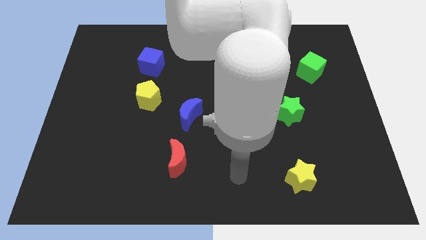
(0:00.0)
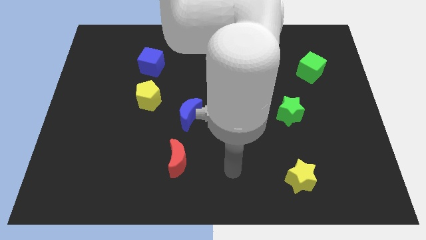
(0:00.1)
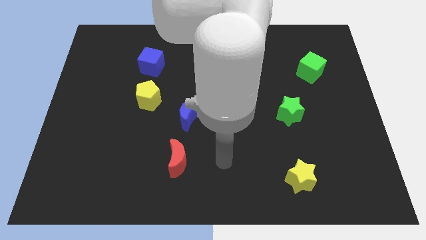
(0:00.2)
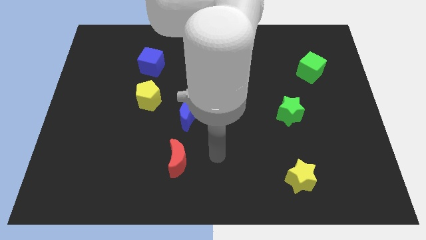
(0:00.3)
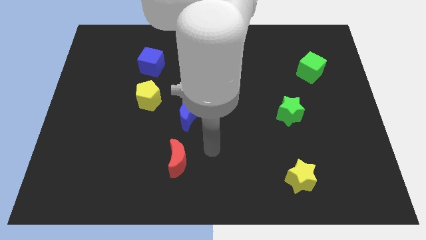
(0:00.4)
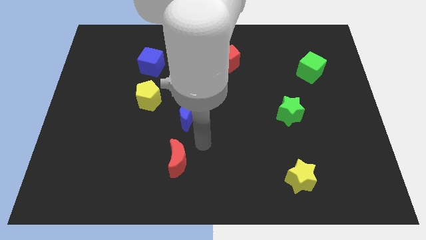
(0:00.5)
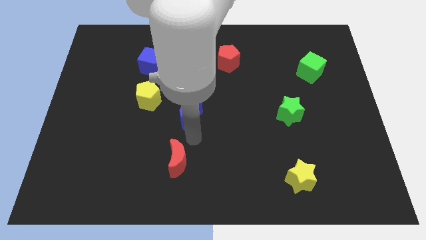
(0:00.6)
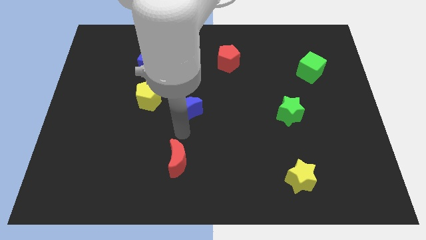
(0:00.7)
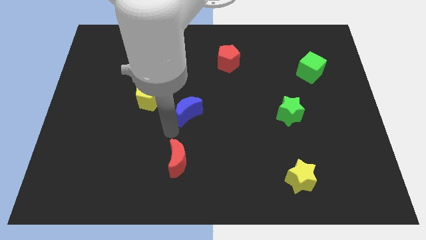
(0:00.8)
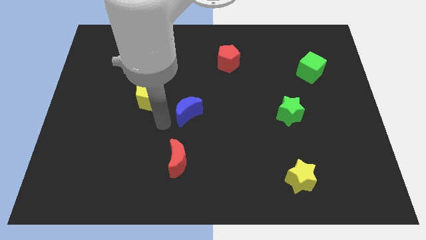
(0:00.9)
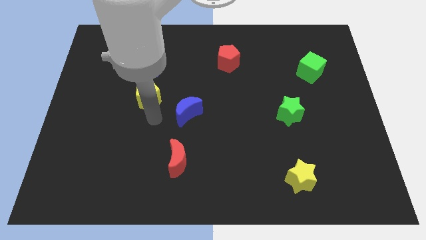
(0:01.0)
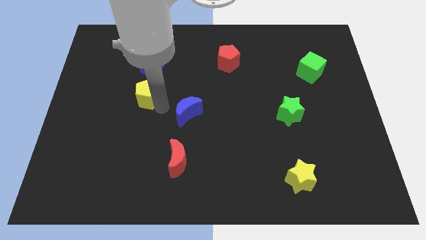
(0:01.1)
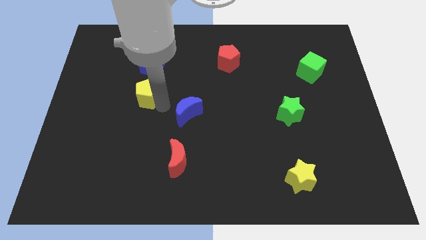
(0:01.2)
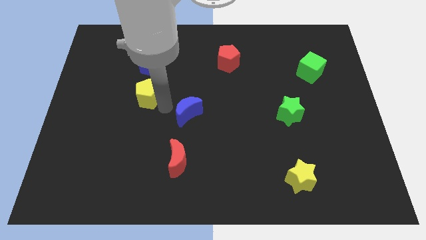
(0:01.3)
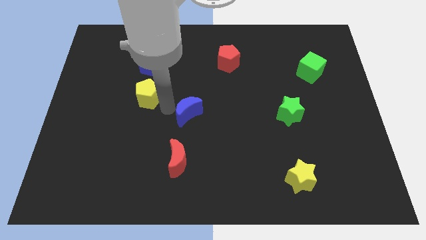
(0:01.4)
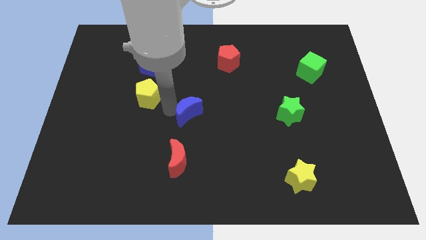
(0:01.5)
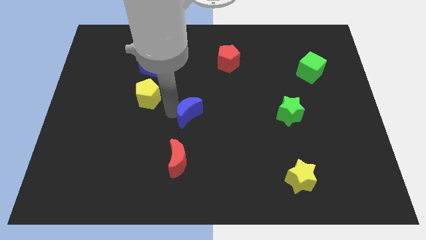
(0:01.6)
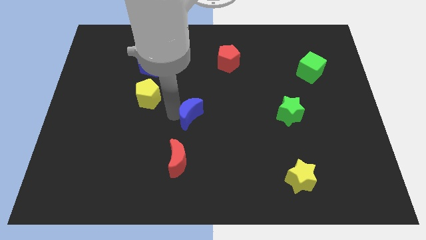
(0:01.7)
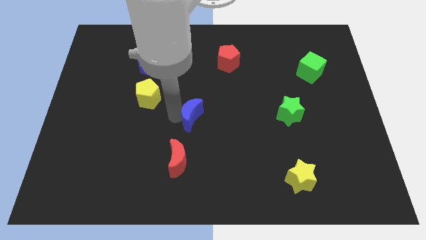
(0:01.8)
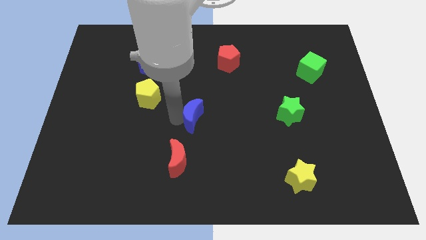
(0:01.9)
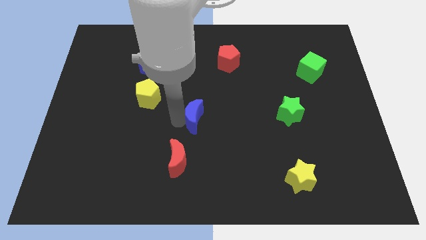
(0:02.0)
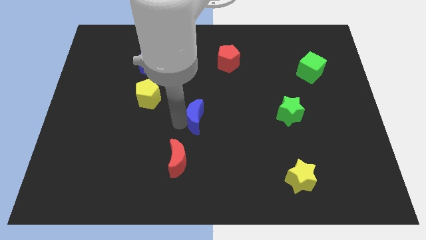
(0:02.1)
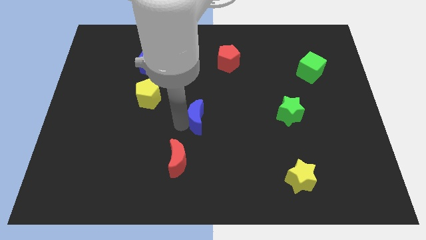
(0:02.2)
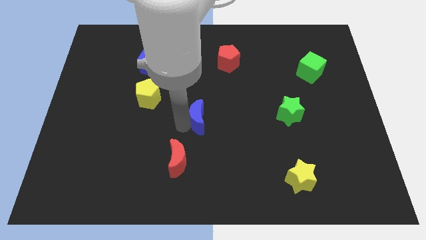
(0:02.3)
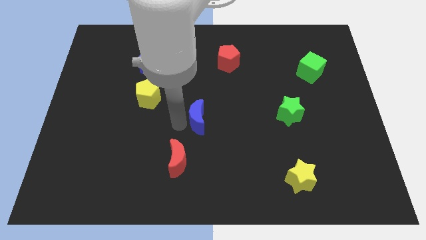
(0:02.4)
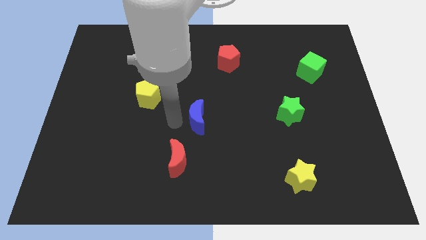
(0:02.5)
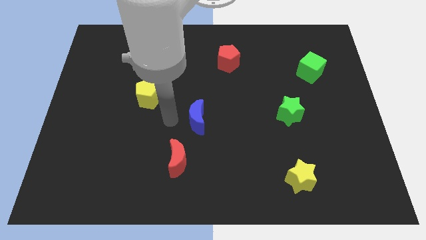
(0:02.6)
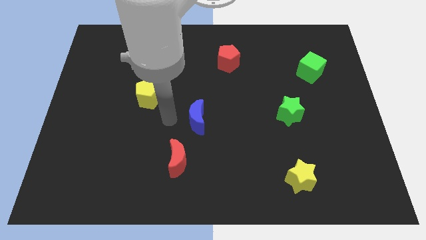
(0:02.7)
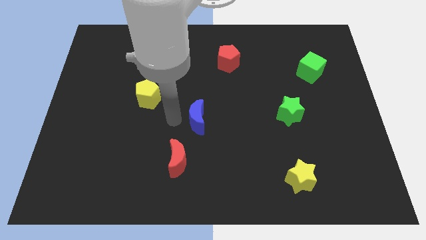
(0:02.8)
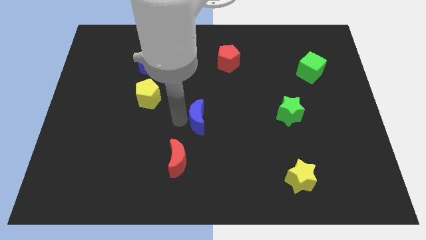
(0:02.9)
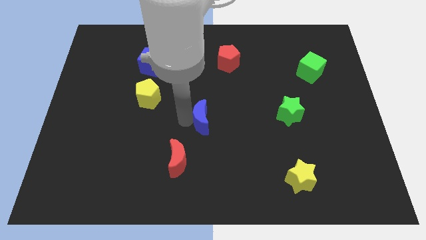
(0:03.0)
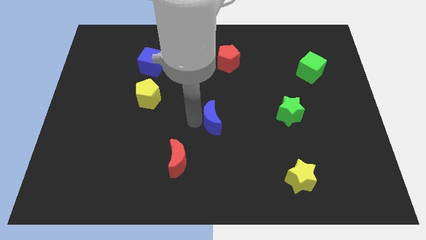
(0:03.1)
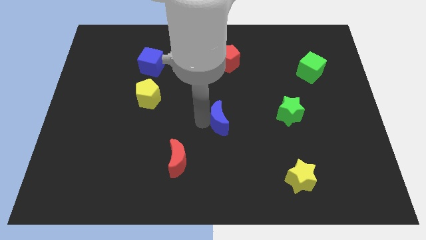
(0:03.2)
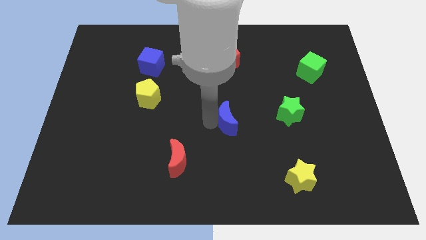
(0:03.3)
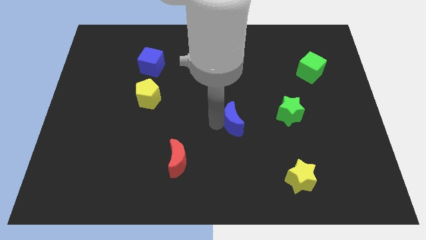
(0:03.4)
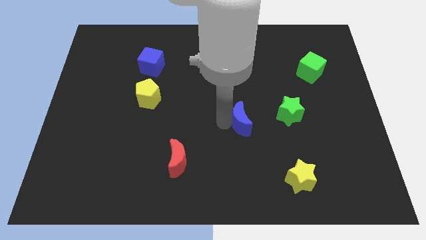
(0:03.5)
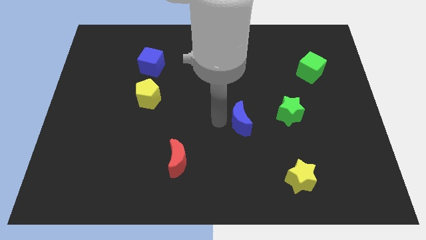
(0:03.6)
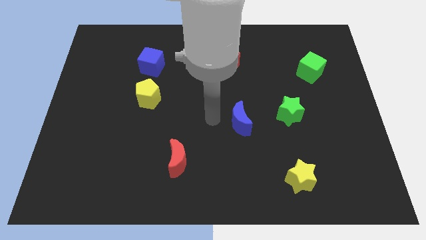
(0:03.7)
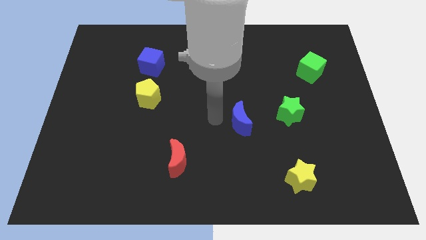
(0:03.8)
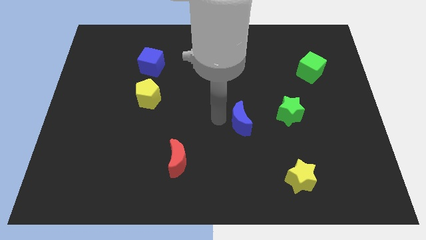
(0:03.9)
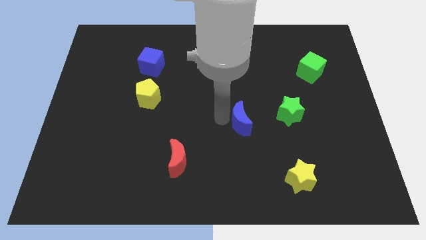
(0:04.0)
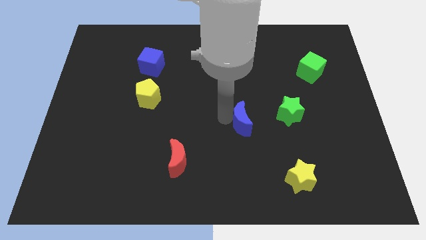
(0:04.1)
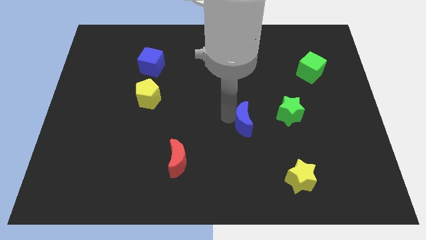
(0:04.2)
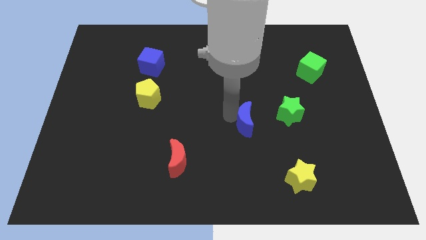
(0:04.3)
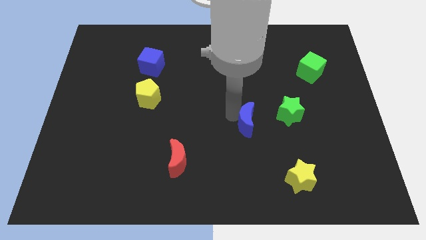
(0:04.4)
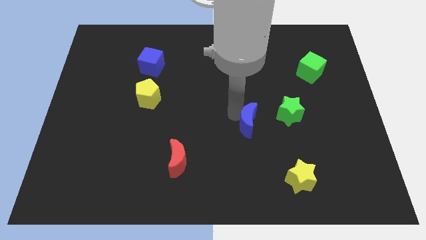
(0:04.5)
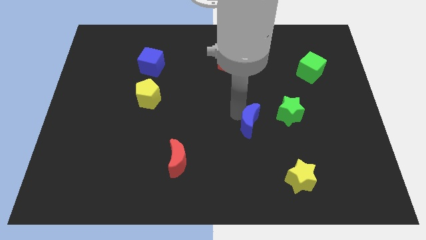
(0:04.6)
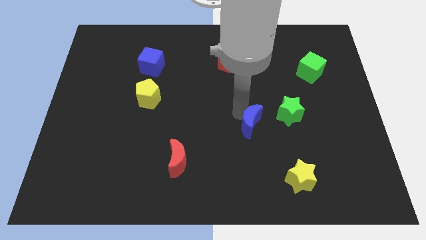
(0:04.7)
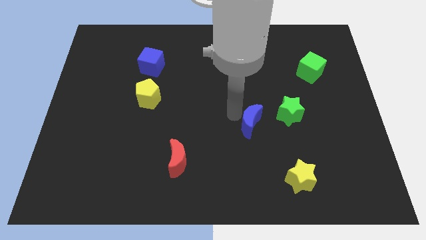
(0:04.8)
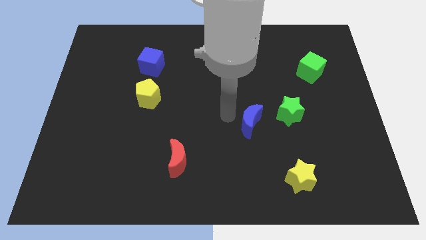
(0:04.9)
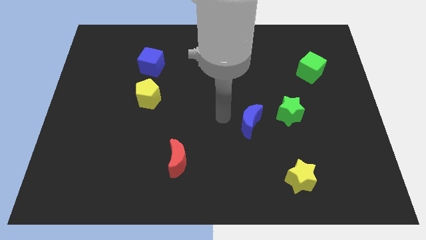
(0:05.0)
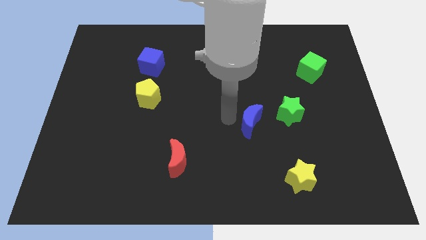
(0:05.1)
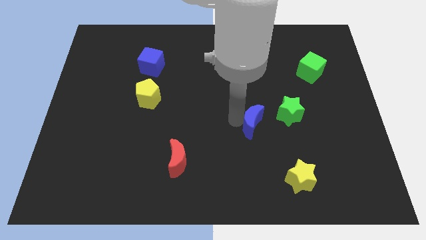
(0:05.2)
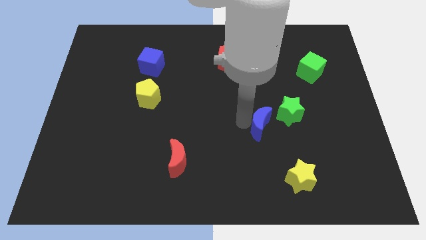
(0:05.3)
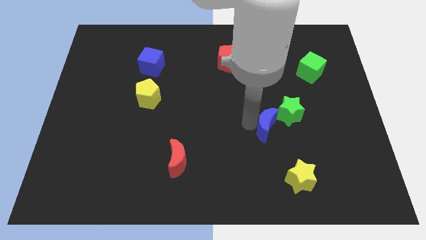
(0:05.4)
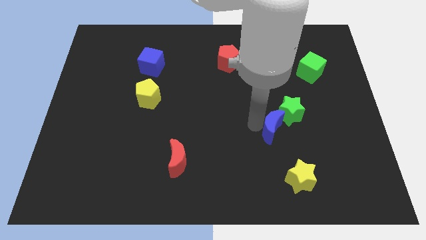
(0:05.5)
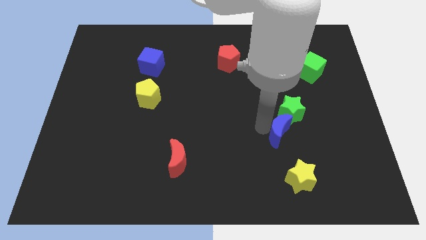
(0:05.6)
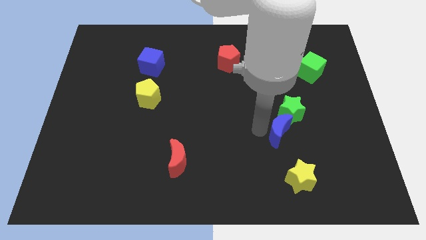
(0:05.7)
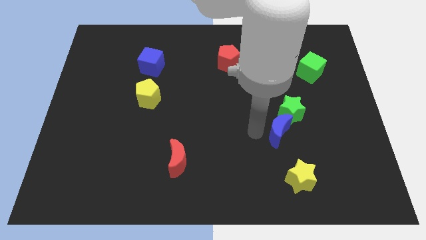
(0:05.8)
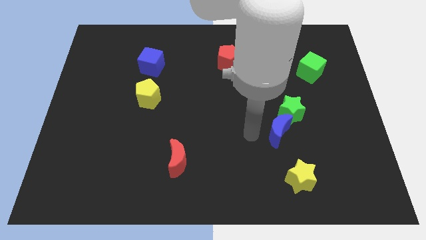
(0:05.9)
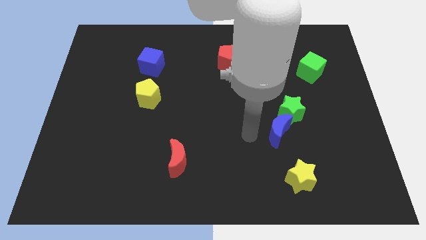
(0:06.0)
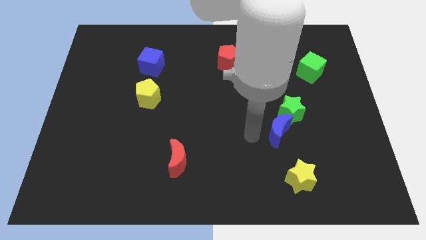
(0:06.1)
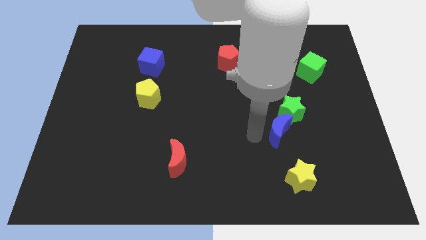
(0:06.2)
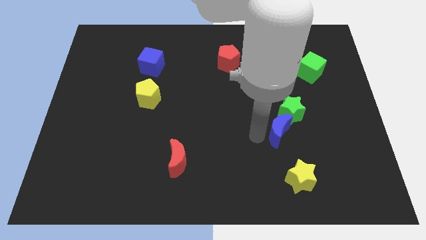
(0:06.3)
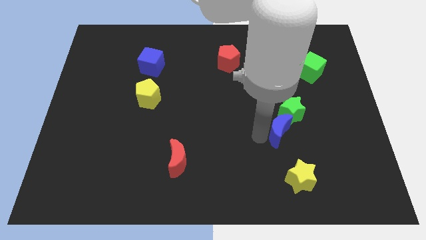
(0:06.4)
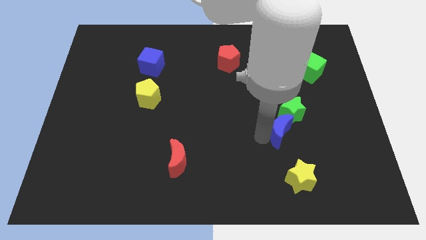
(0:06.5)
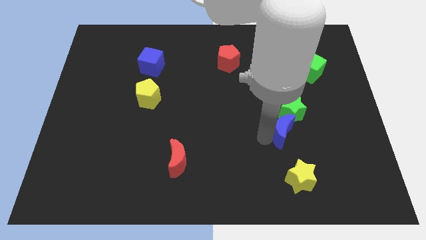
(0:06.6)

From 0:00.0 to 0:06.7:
push the blue moon right

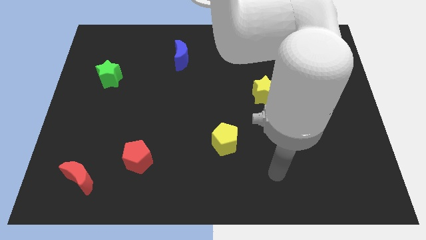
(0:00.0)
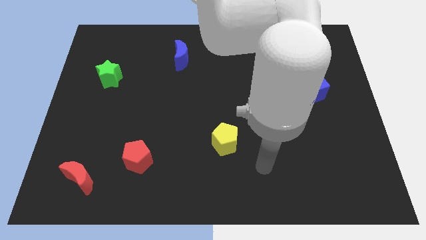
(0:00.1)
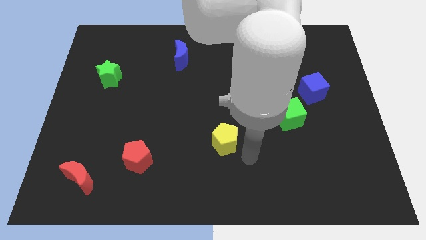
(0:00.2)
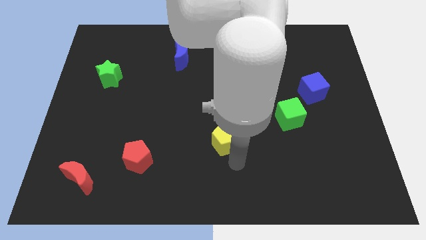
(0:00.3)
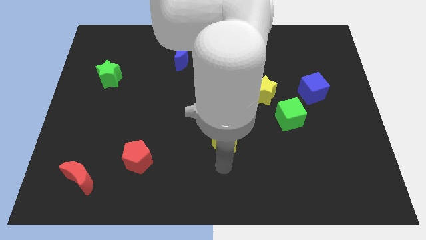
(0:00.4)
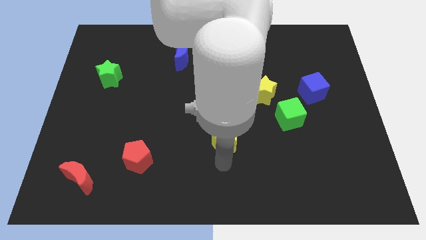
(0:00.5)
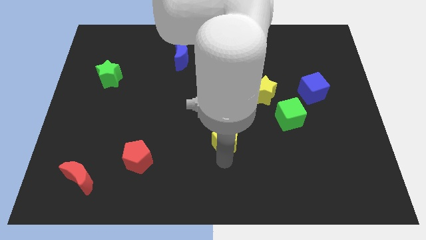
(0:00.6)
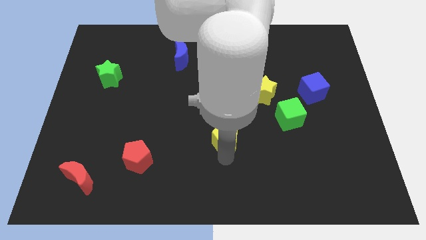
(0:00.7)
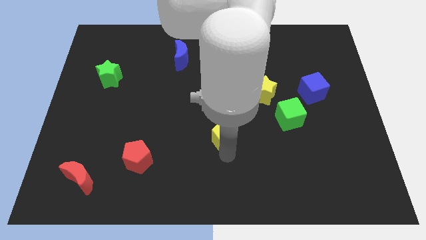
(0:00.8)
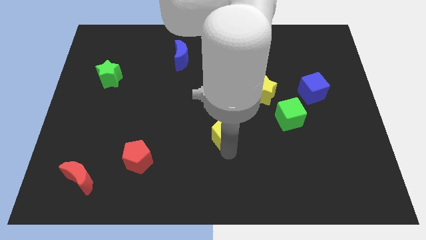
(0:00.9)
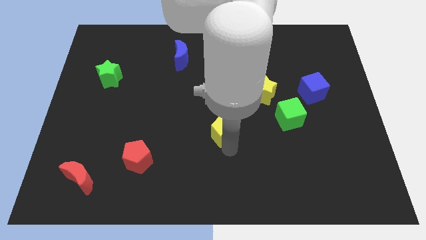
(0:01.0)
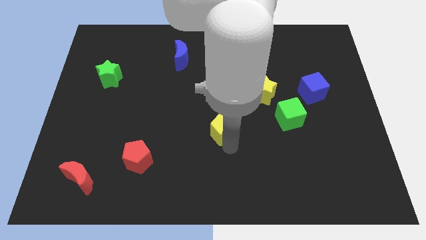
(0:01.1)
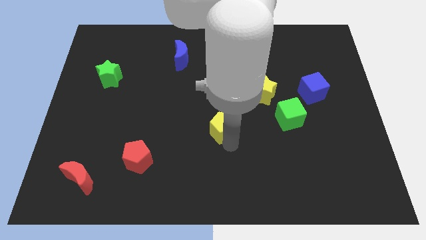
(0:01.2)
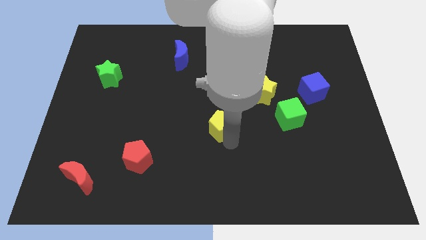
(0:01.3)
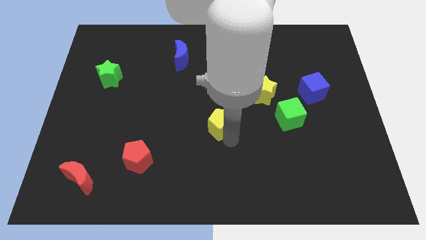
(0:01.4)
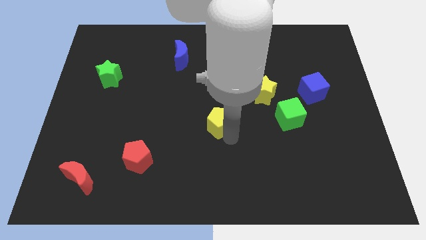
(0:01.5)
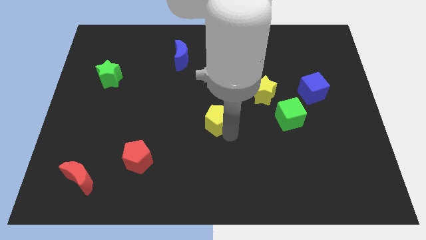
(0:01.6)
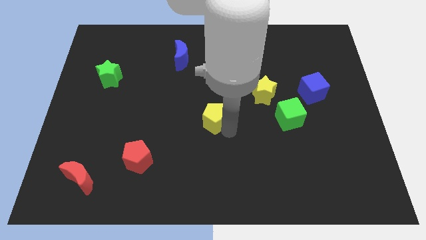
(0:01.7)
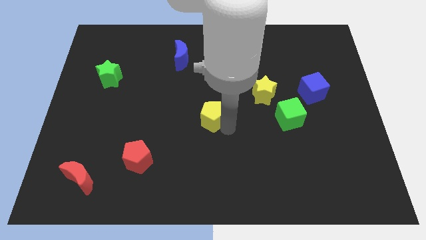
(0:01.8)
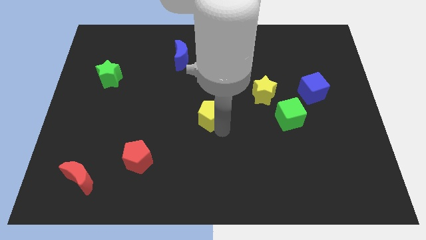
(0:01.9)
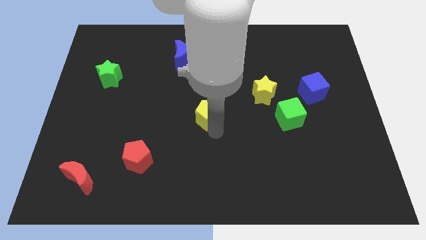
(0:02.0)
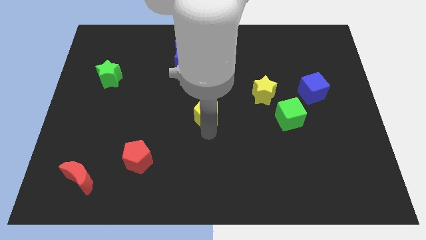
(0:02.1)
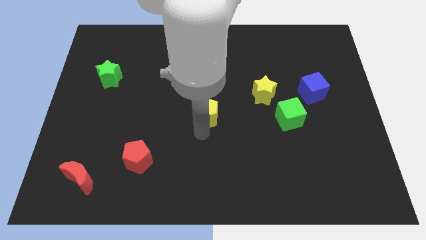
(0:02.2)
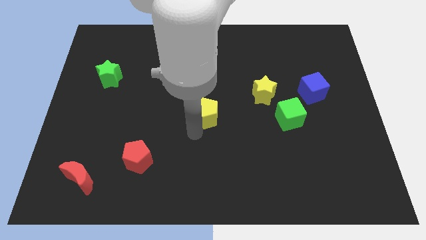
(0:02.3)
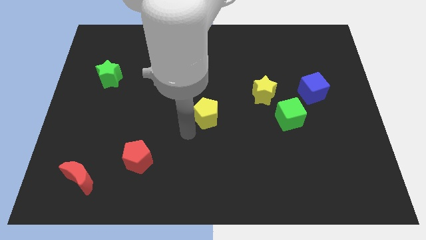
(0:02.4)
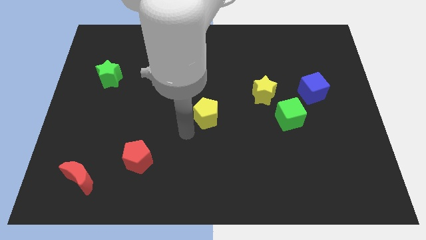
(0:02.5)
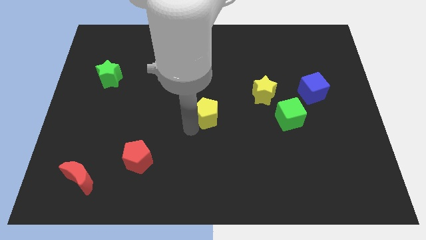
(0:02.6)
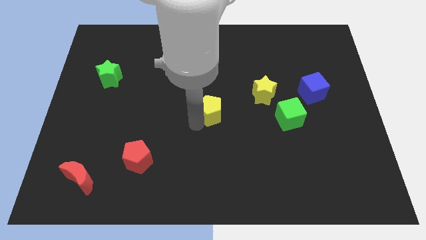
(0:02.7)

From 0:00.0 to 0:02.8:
move the yellow pentagon slightly up
